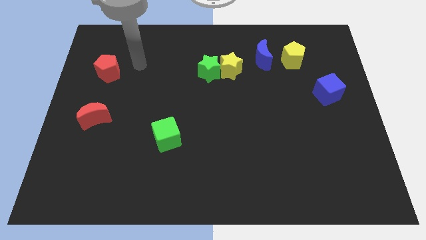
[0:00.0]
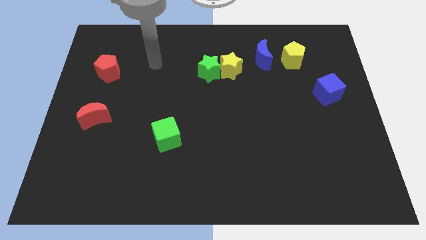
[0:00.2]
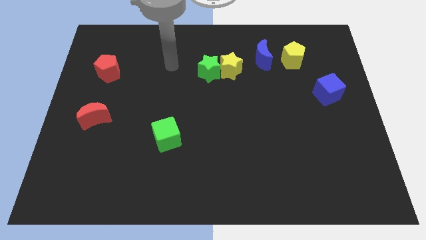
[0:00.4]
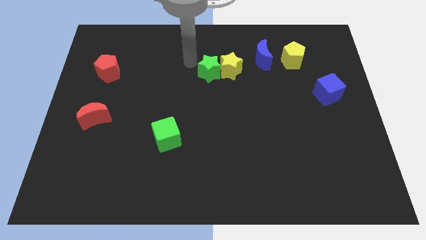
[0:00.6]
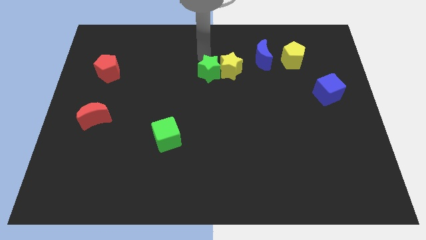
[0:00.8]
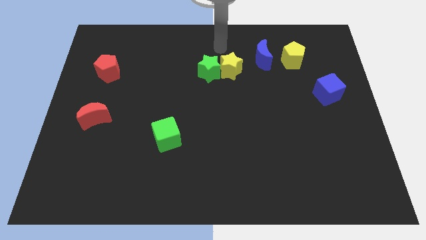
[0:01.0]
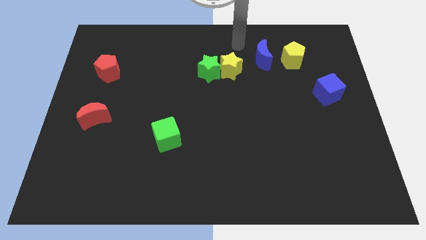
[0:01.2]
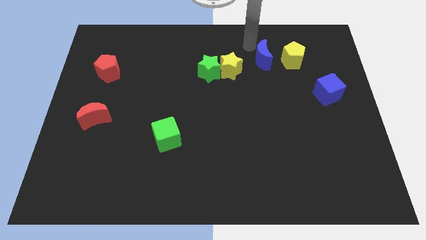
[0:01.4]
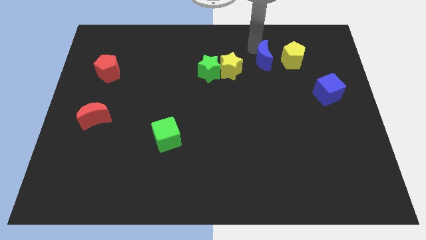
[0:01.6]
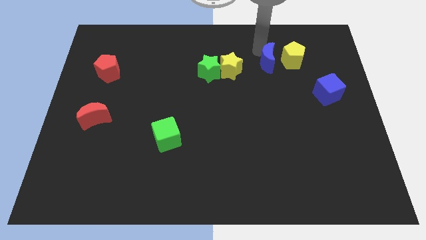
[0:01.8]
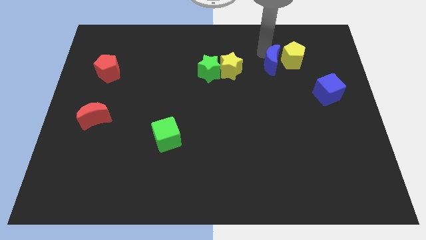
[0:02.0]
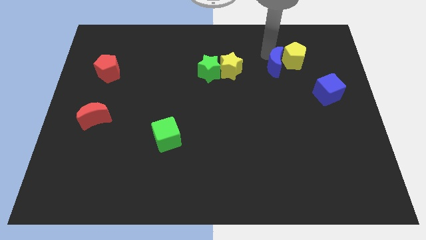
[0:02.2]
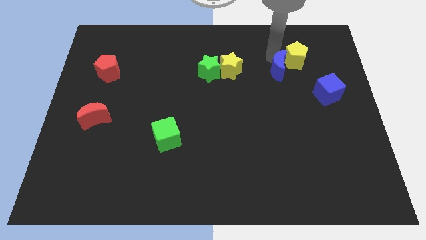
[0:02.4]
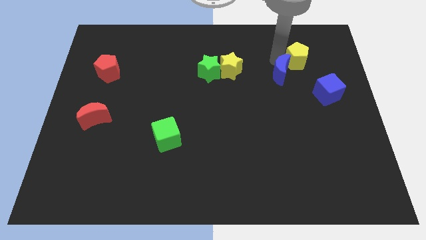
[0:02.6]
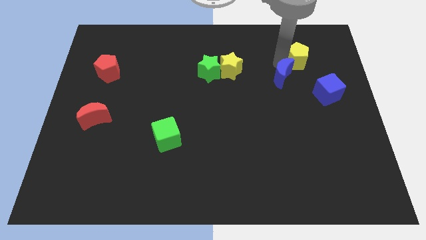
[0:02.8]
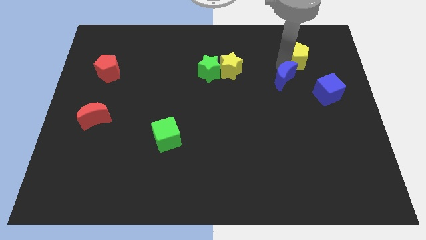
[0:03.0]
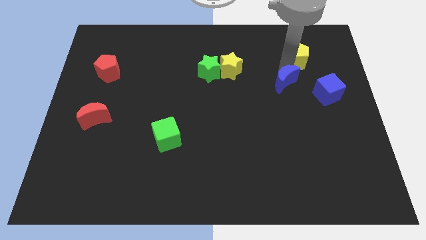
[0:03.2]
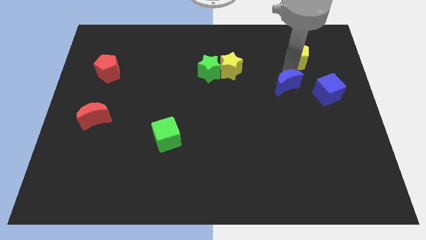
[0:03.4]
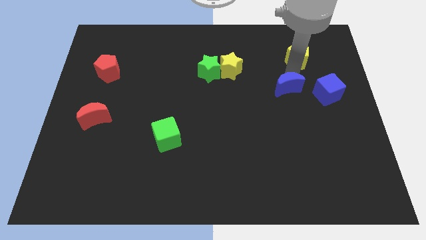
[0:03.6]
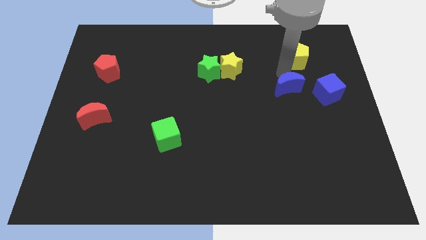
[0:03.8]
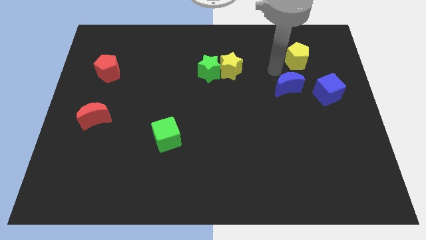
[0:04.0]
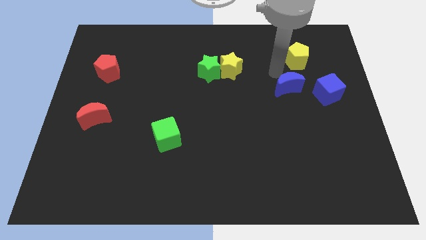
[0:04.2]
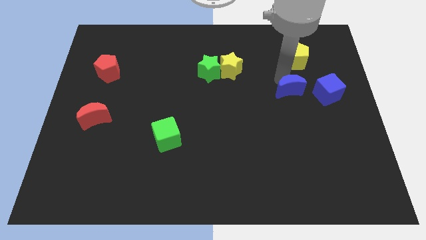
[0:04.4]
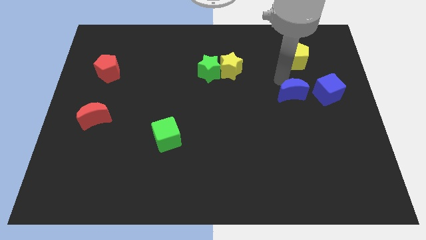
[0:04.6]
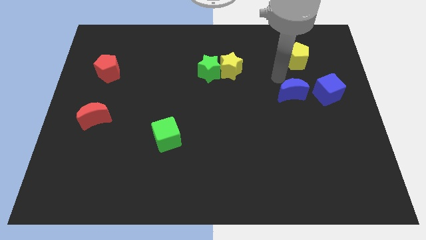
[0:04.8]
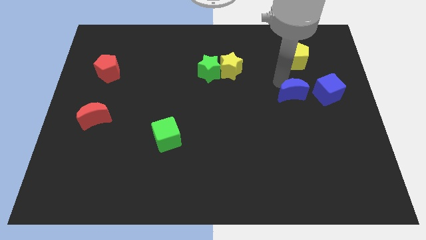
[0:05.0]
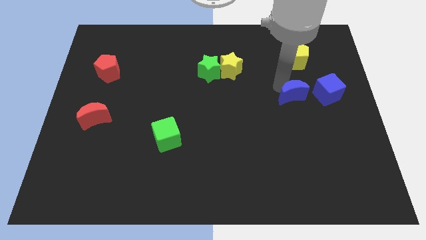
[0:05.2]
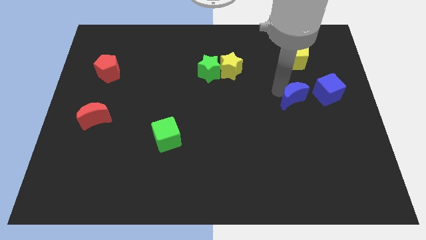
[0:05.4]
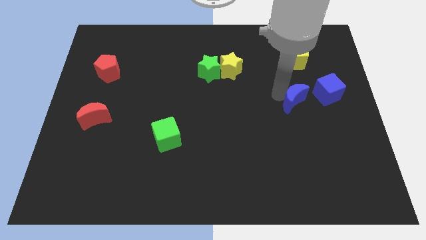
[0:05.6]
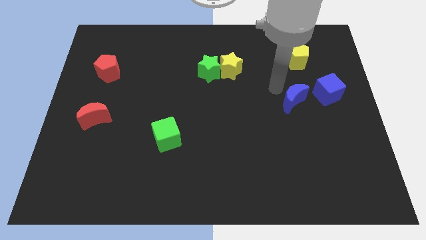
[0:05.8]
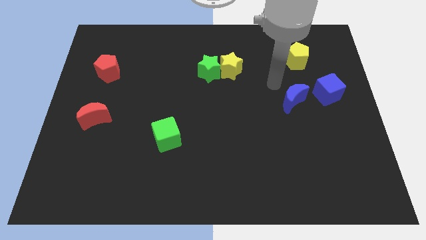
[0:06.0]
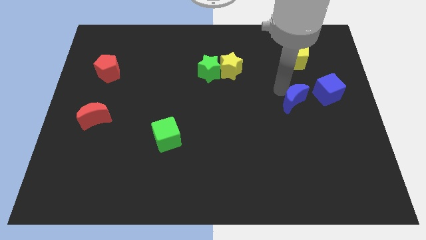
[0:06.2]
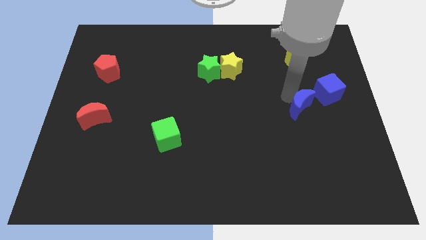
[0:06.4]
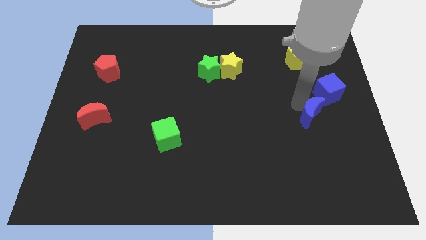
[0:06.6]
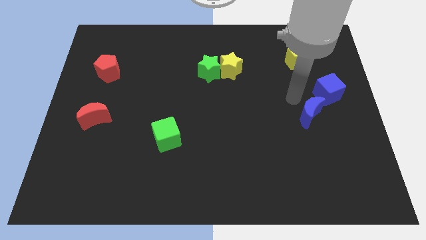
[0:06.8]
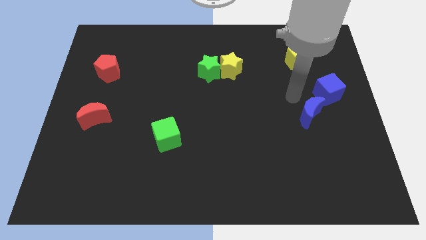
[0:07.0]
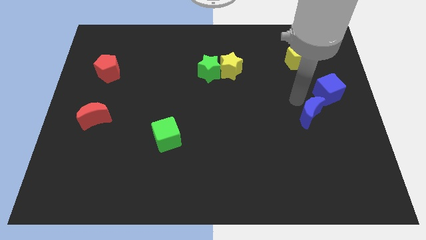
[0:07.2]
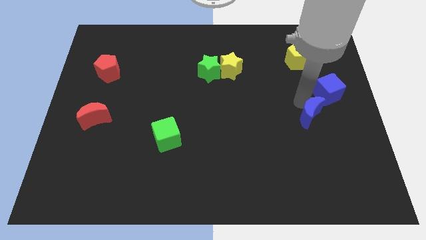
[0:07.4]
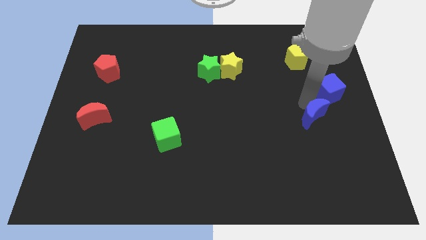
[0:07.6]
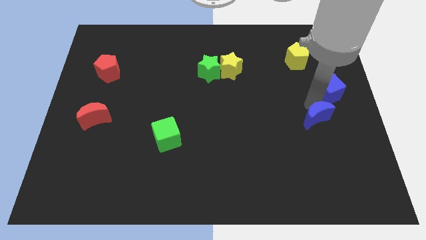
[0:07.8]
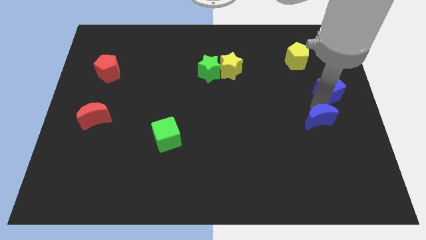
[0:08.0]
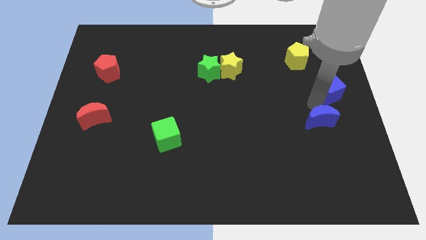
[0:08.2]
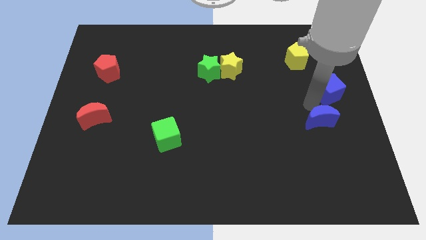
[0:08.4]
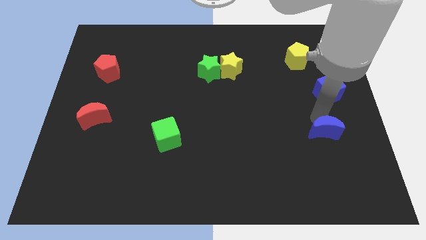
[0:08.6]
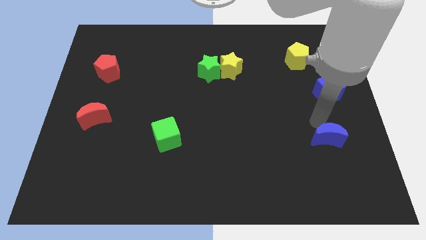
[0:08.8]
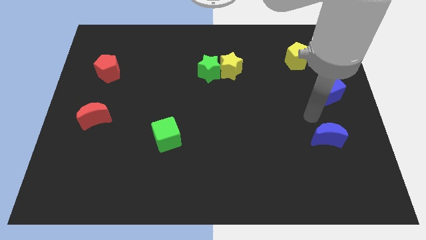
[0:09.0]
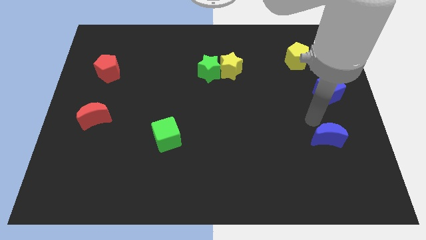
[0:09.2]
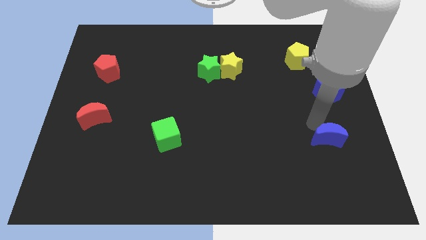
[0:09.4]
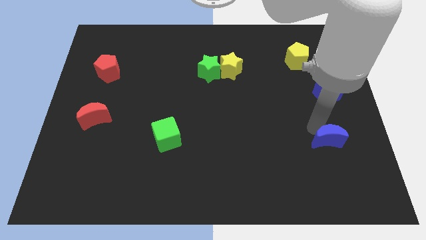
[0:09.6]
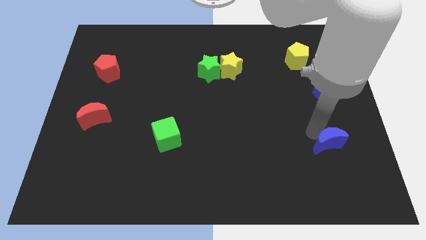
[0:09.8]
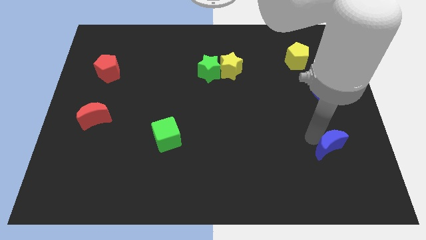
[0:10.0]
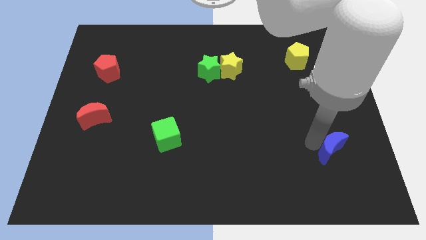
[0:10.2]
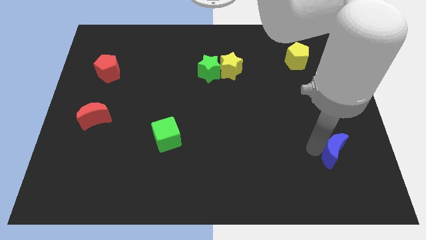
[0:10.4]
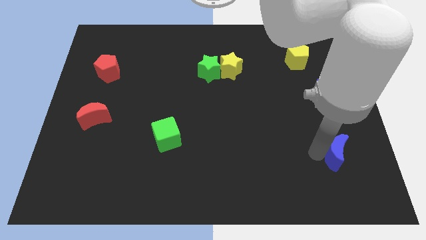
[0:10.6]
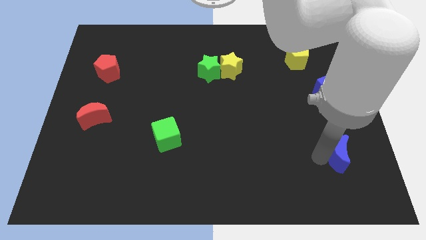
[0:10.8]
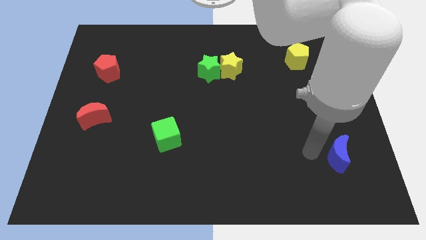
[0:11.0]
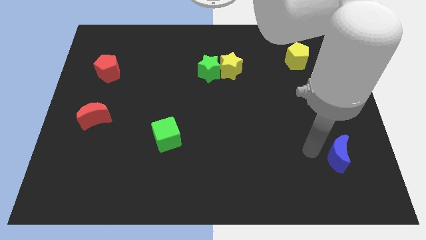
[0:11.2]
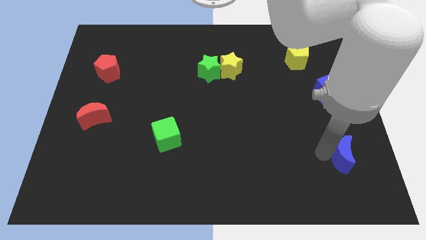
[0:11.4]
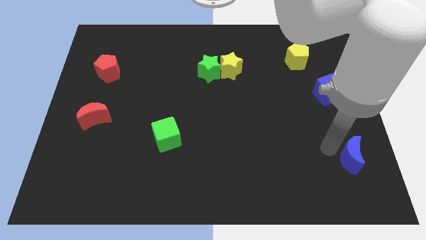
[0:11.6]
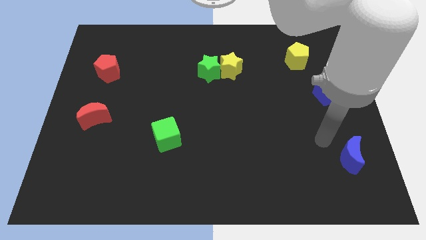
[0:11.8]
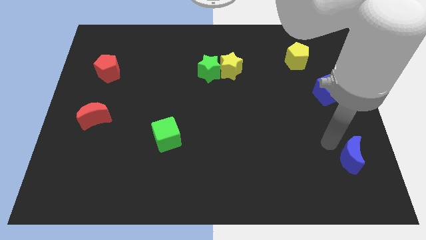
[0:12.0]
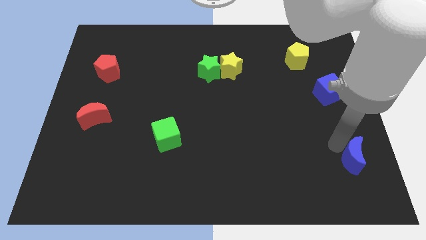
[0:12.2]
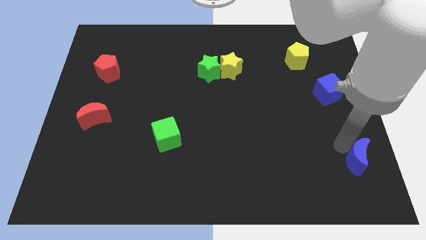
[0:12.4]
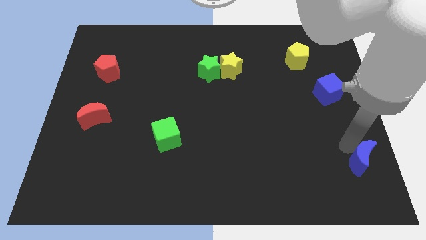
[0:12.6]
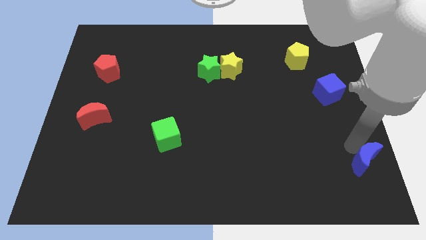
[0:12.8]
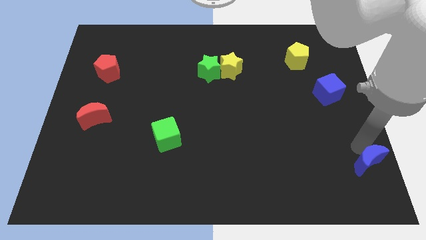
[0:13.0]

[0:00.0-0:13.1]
move the blue moon to the bottom right
